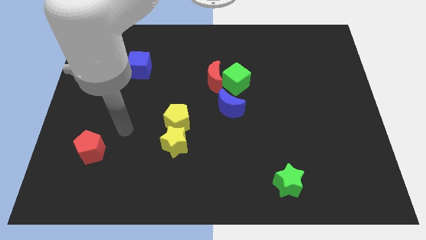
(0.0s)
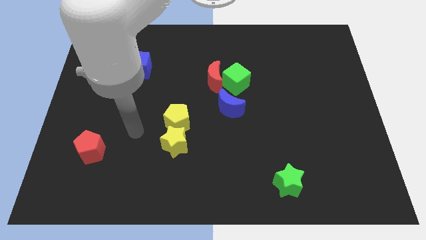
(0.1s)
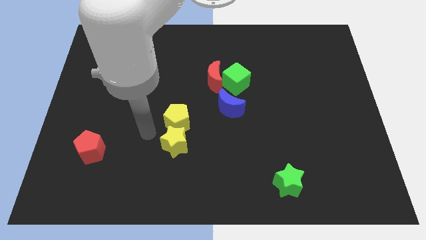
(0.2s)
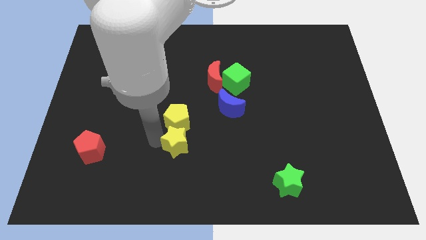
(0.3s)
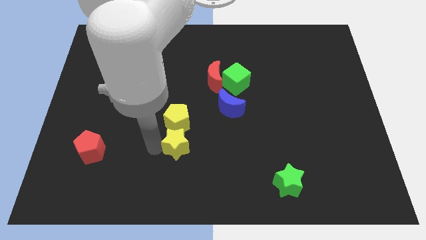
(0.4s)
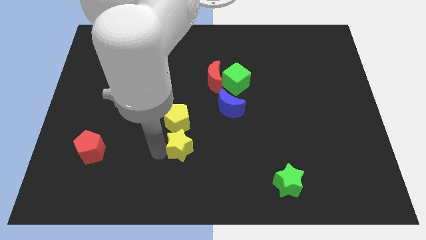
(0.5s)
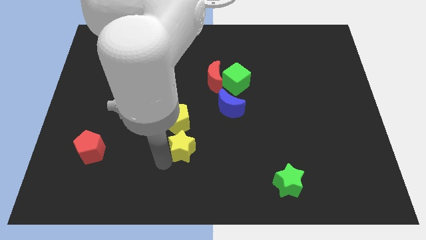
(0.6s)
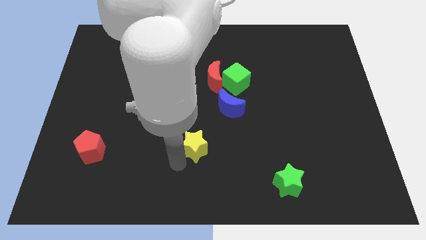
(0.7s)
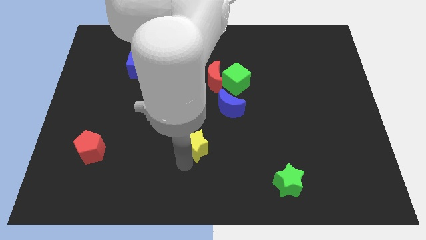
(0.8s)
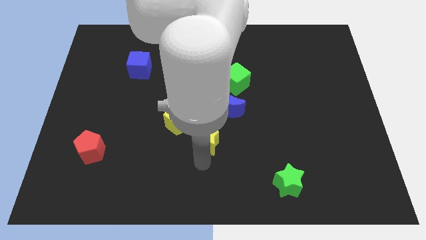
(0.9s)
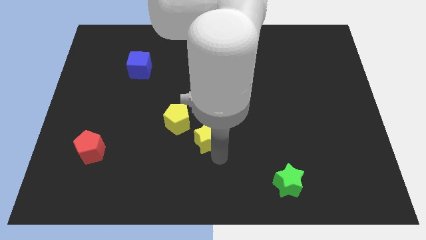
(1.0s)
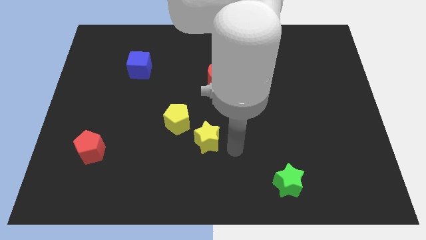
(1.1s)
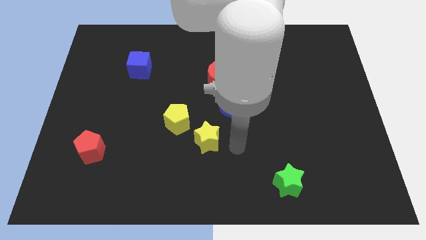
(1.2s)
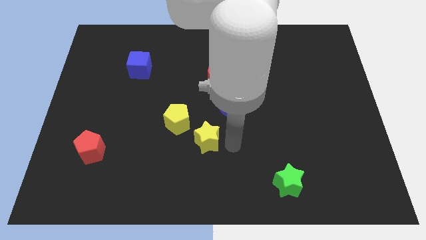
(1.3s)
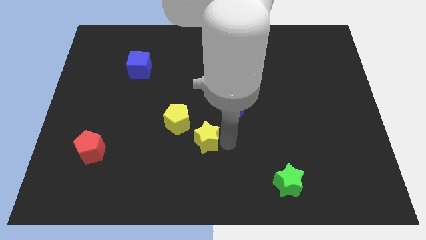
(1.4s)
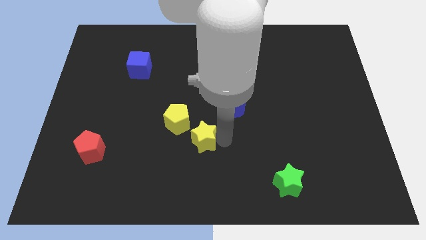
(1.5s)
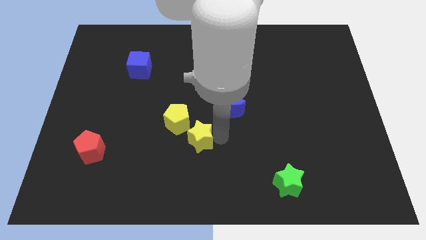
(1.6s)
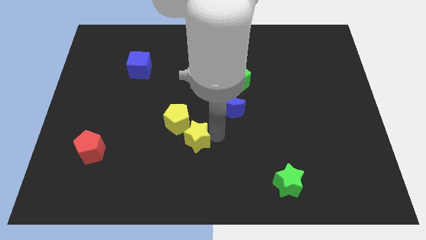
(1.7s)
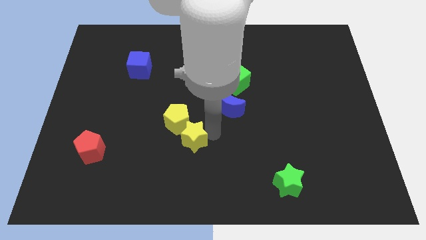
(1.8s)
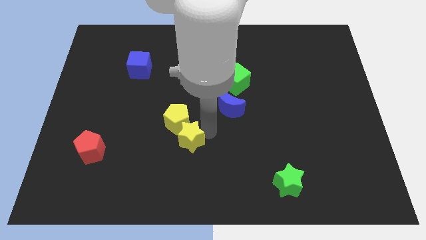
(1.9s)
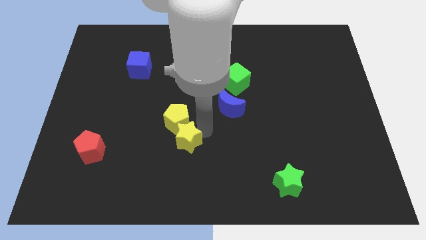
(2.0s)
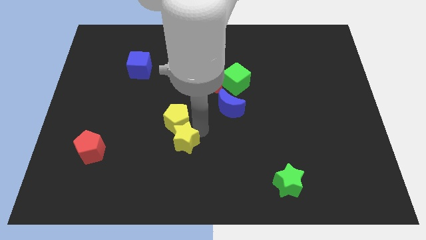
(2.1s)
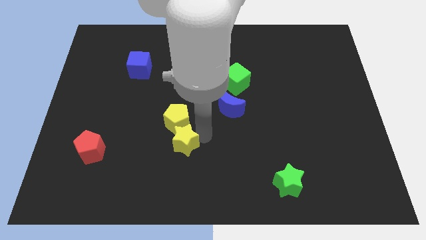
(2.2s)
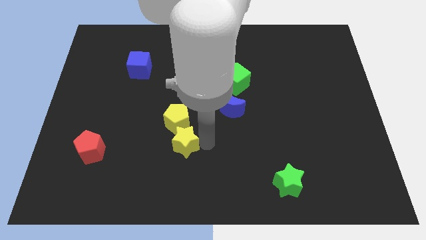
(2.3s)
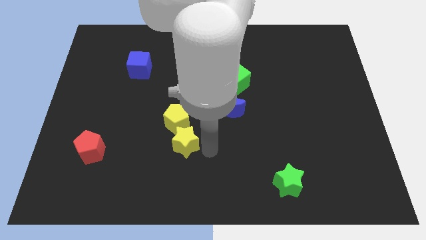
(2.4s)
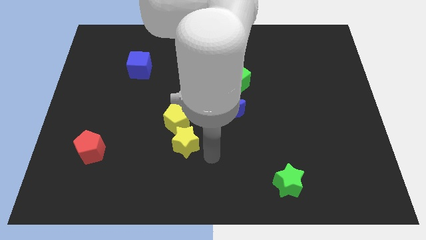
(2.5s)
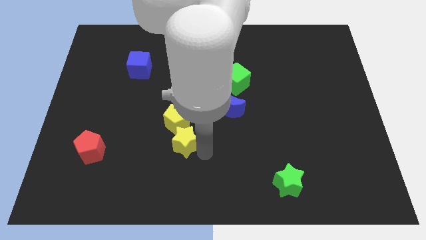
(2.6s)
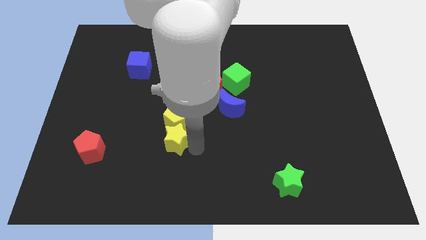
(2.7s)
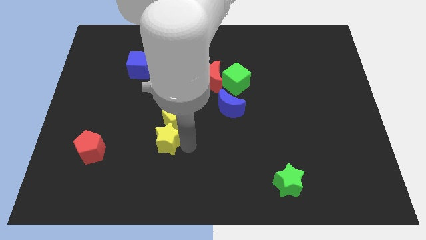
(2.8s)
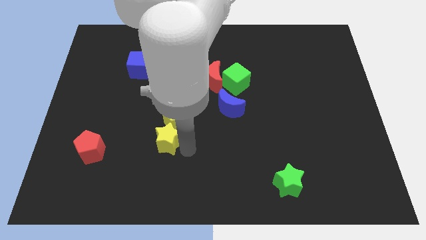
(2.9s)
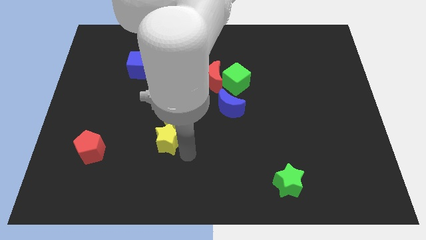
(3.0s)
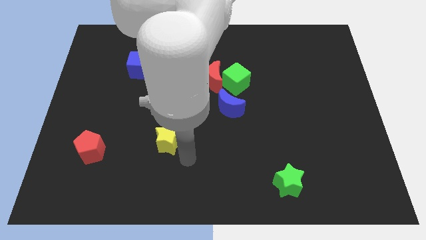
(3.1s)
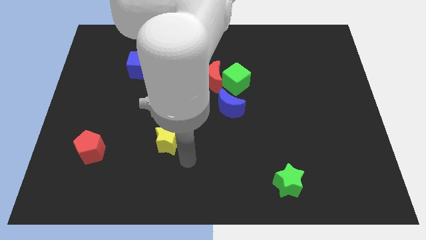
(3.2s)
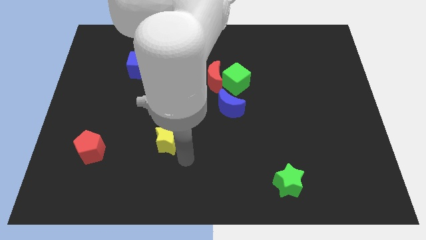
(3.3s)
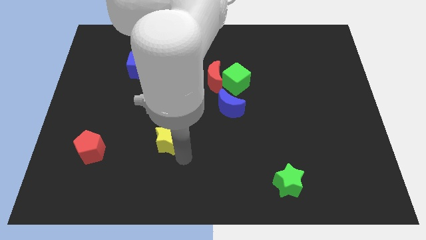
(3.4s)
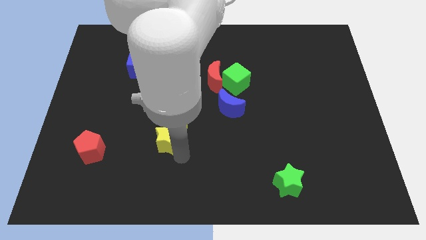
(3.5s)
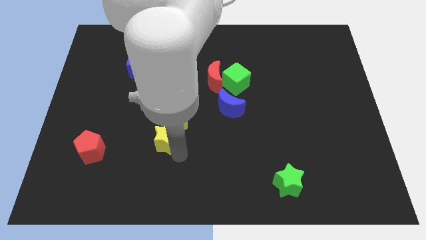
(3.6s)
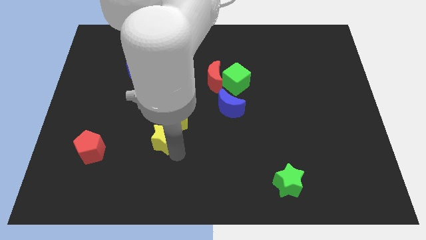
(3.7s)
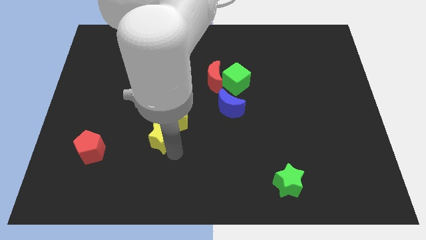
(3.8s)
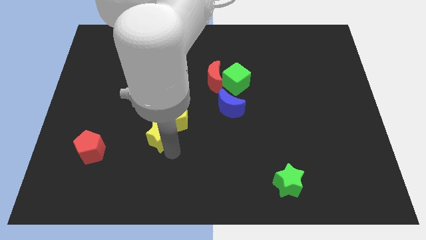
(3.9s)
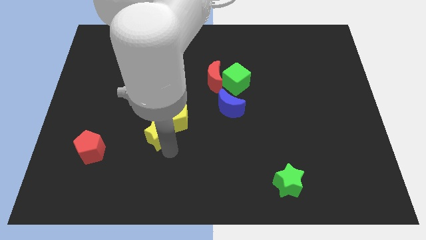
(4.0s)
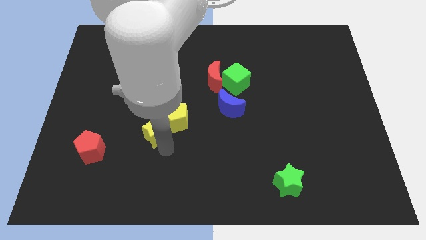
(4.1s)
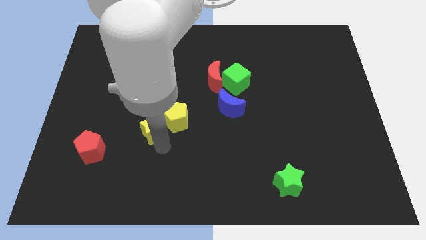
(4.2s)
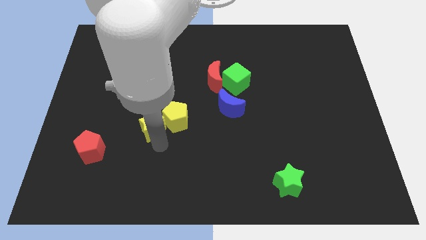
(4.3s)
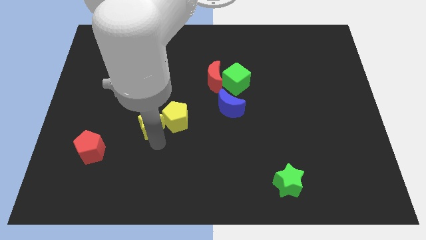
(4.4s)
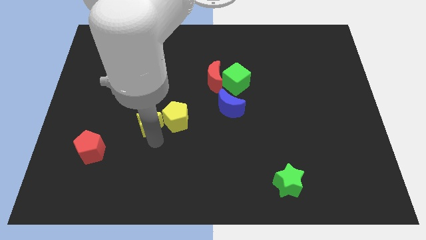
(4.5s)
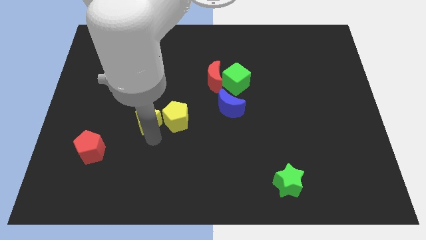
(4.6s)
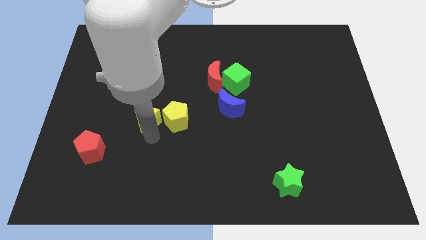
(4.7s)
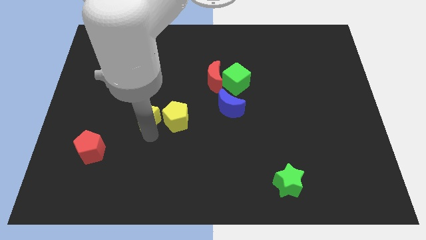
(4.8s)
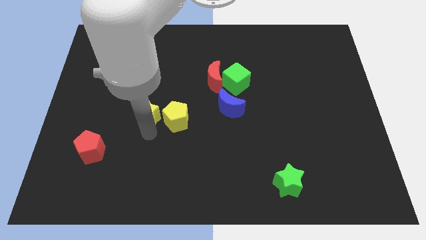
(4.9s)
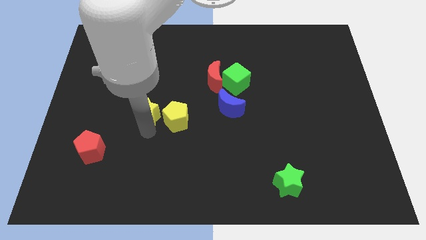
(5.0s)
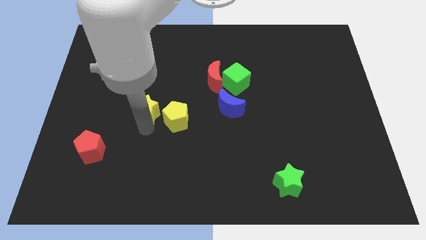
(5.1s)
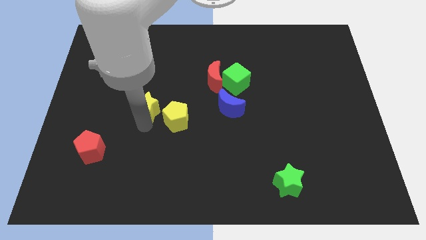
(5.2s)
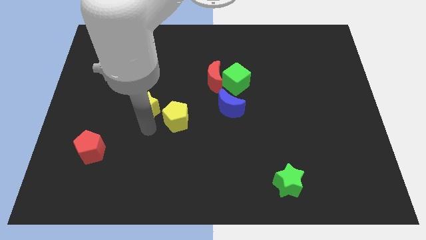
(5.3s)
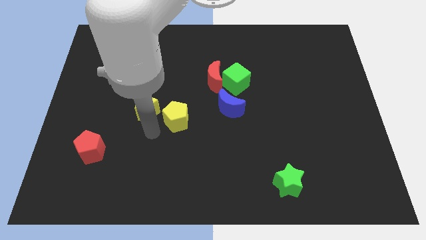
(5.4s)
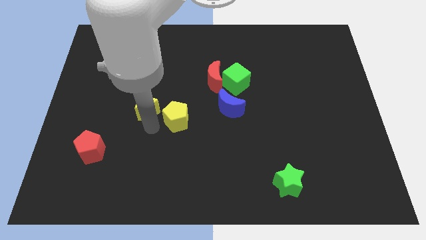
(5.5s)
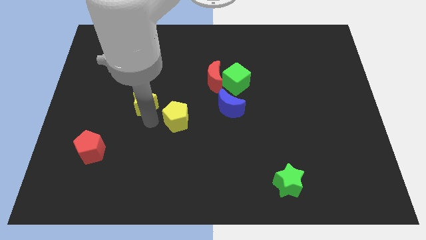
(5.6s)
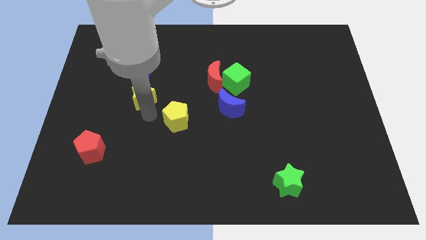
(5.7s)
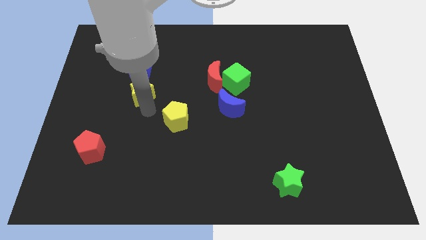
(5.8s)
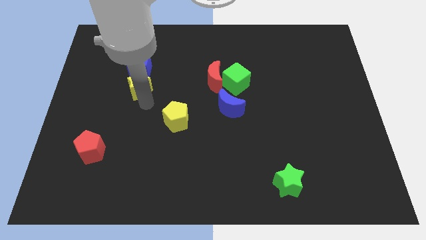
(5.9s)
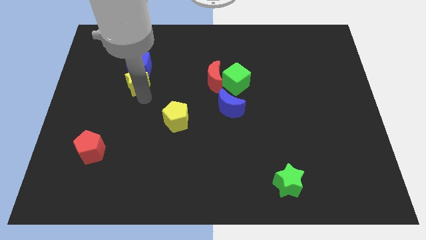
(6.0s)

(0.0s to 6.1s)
slide the yellow star to the blue cube
